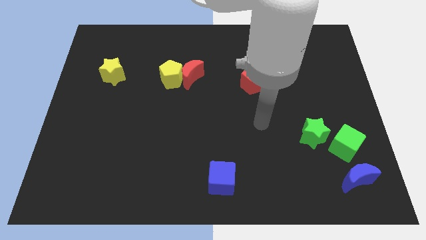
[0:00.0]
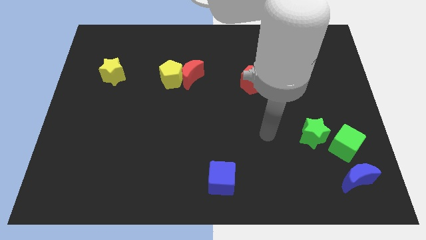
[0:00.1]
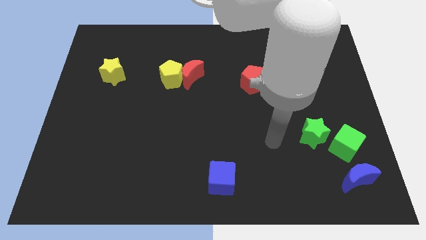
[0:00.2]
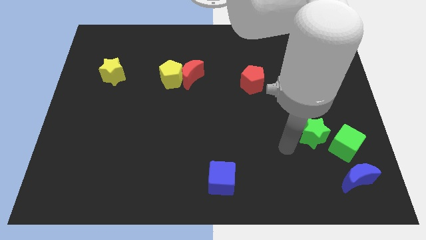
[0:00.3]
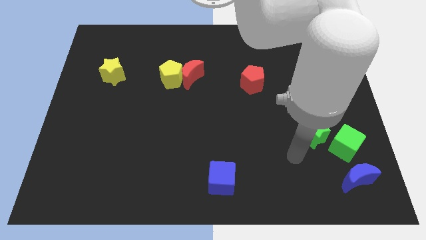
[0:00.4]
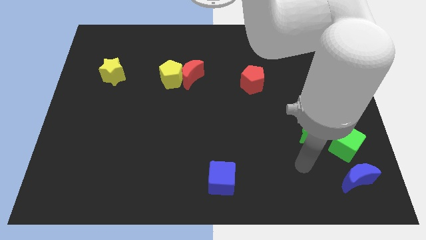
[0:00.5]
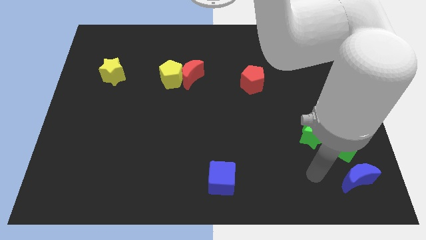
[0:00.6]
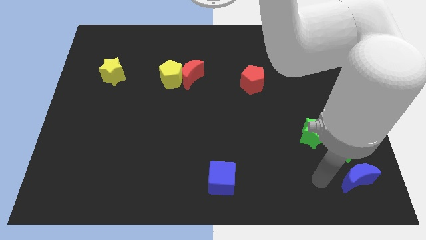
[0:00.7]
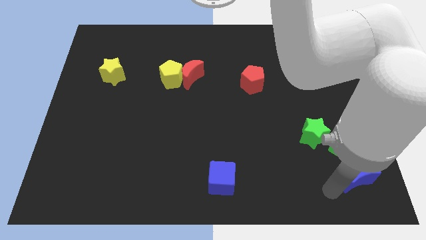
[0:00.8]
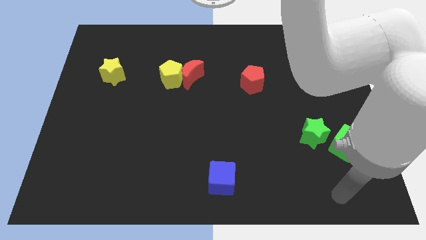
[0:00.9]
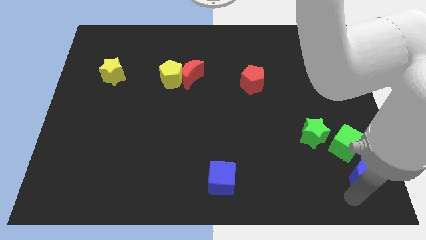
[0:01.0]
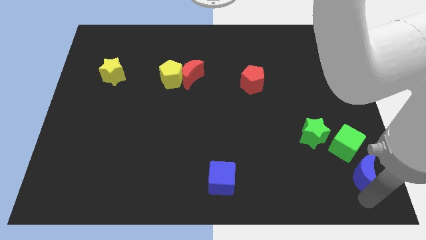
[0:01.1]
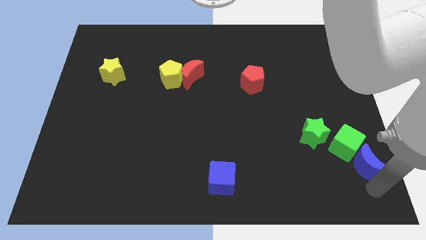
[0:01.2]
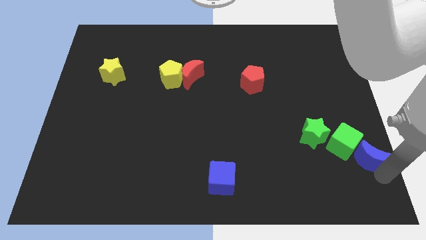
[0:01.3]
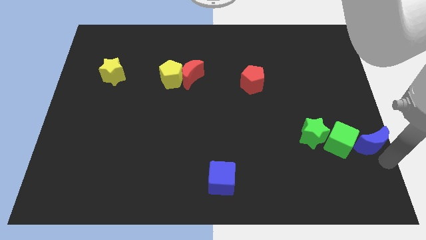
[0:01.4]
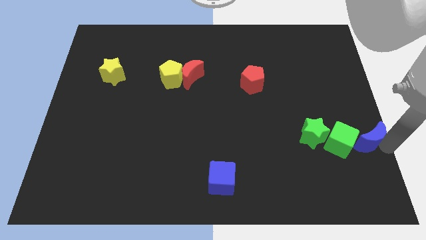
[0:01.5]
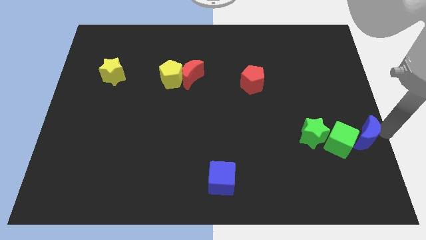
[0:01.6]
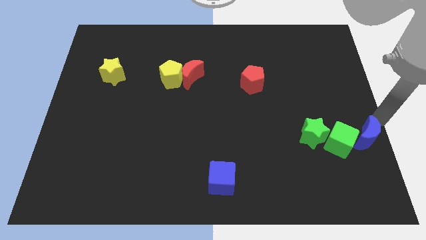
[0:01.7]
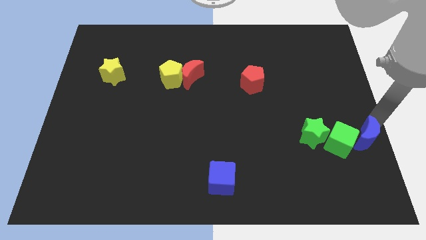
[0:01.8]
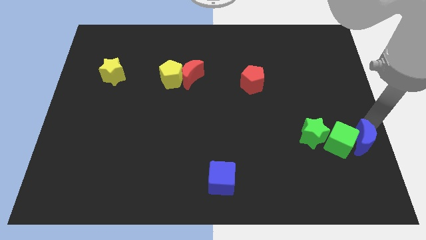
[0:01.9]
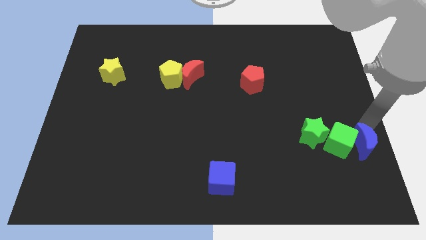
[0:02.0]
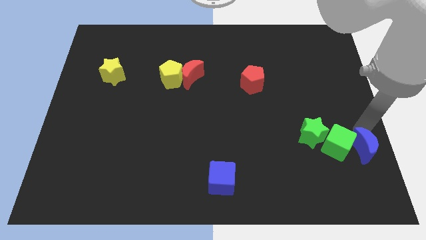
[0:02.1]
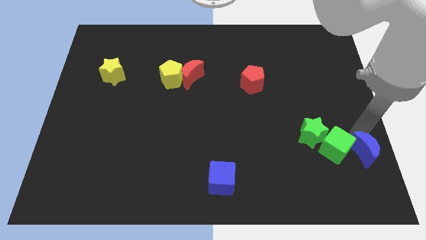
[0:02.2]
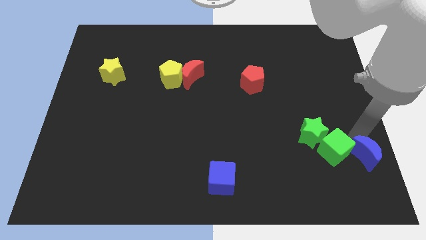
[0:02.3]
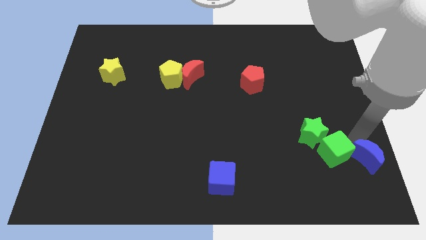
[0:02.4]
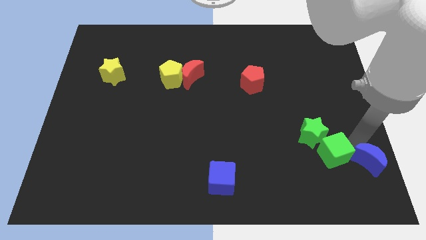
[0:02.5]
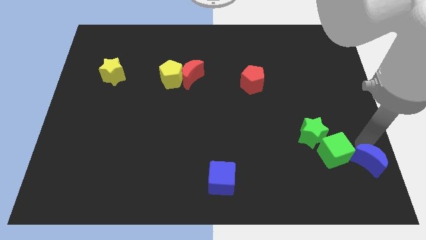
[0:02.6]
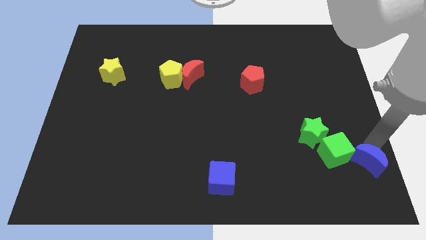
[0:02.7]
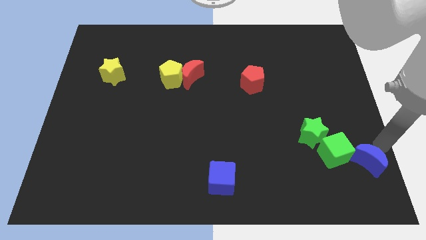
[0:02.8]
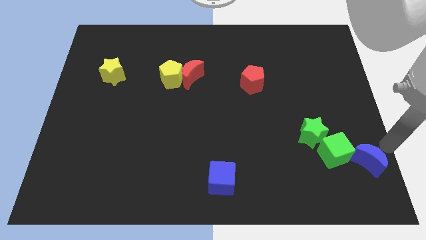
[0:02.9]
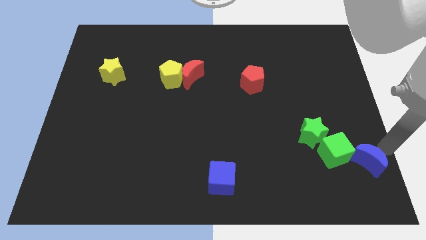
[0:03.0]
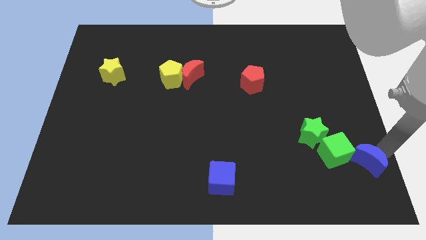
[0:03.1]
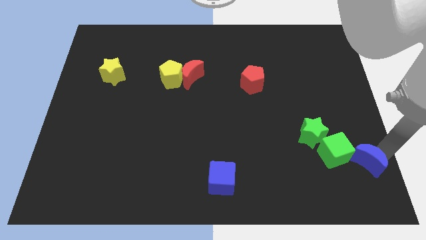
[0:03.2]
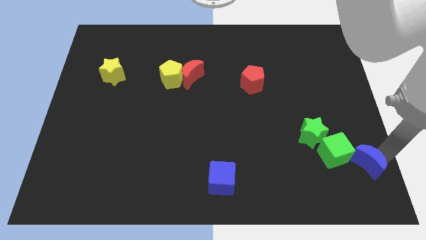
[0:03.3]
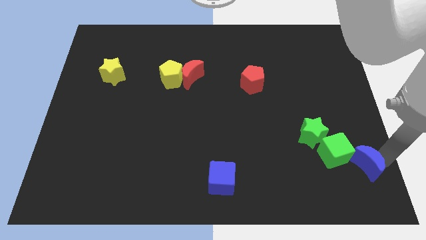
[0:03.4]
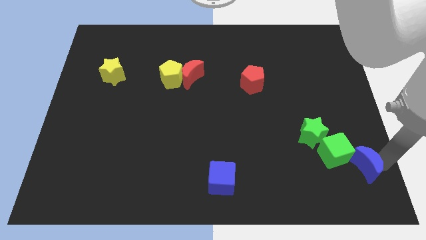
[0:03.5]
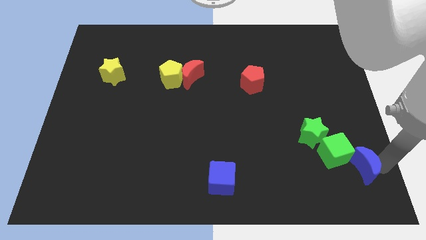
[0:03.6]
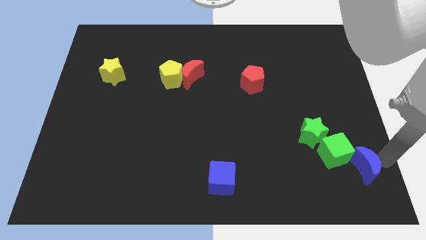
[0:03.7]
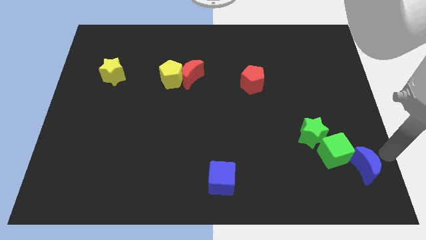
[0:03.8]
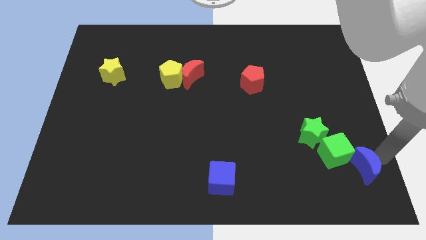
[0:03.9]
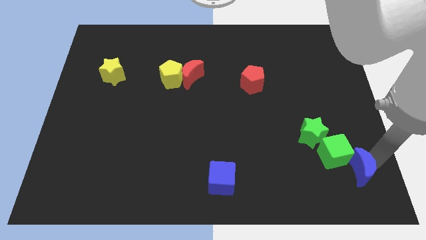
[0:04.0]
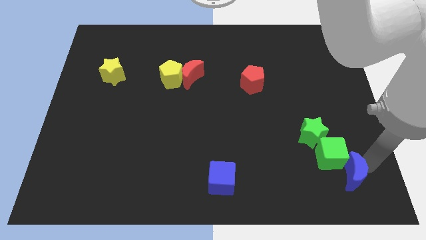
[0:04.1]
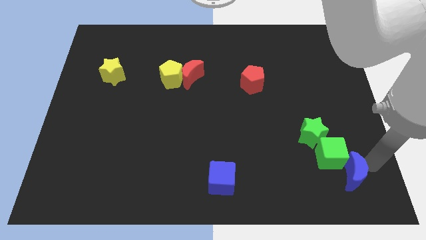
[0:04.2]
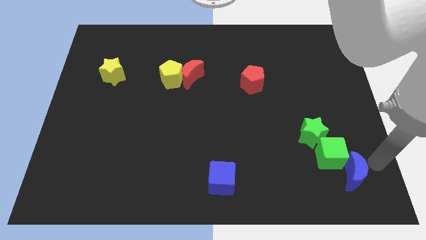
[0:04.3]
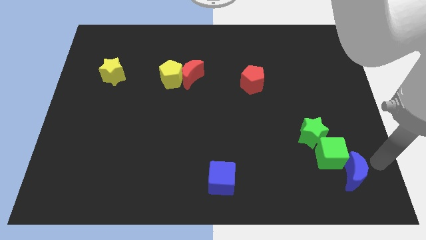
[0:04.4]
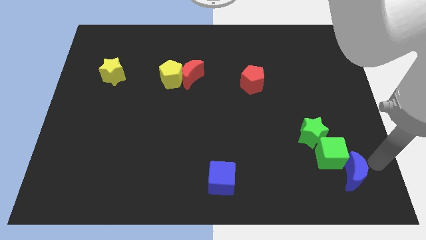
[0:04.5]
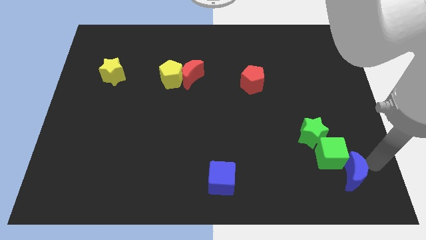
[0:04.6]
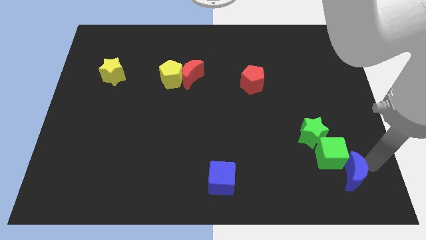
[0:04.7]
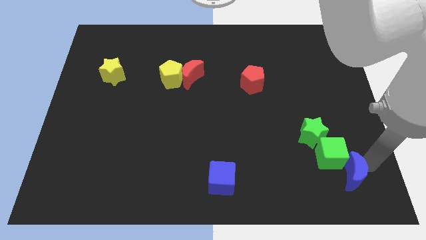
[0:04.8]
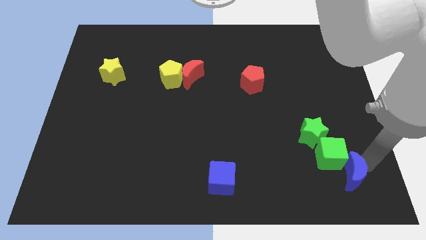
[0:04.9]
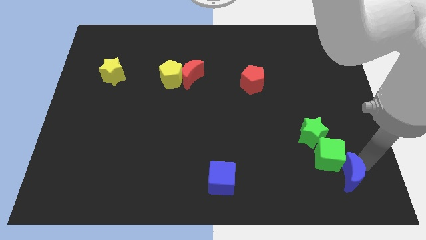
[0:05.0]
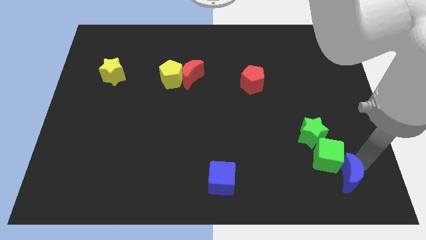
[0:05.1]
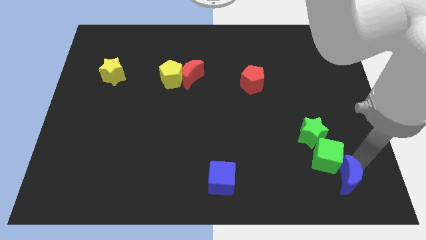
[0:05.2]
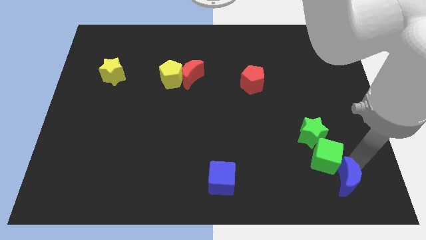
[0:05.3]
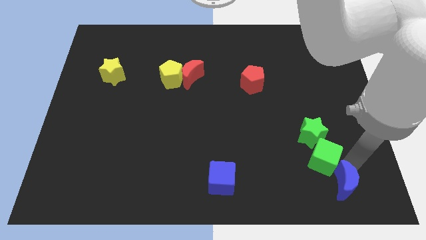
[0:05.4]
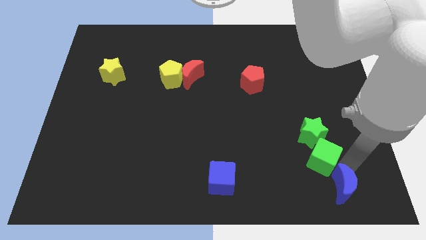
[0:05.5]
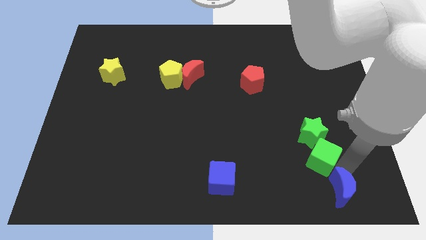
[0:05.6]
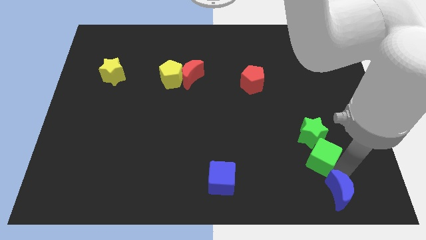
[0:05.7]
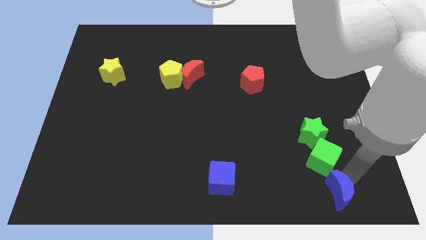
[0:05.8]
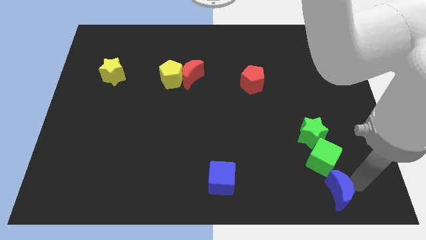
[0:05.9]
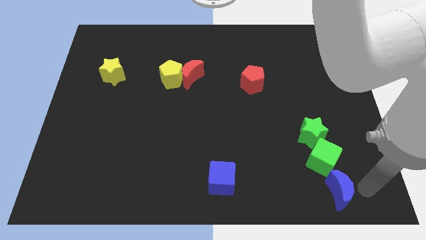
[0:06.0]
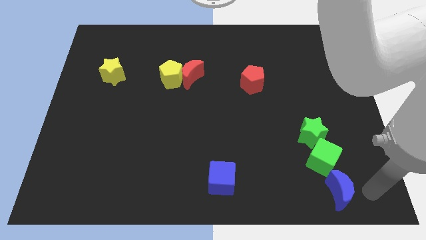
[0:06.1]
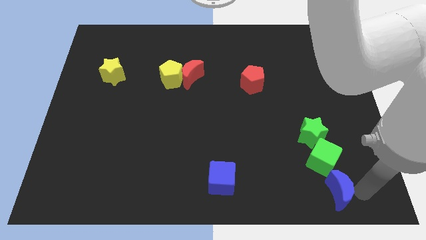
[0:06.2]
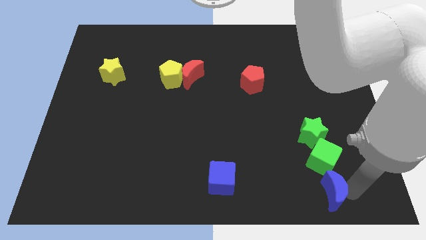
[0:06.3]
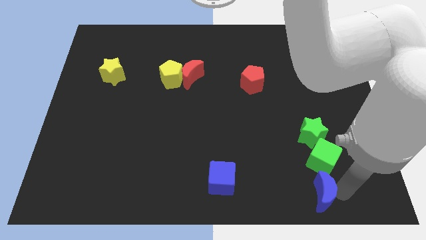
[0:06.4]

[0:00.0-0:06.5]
slide the blue moon a little left

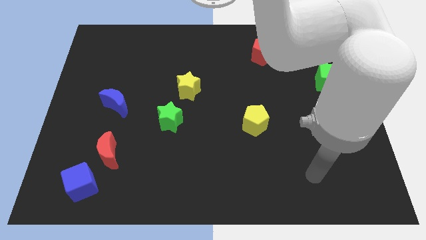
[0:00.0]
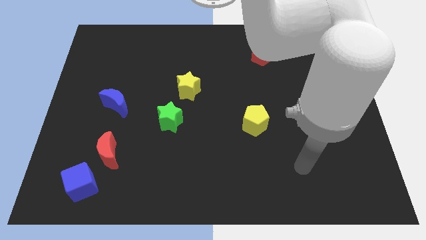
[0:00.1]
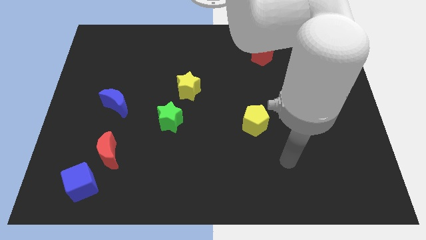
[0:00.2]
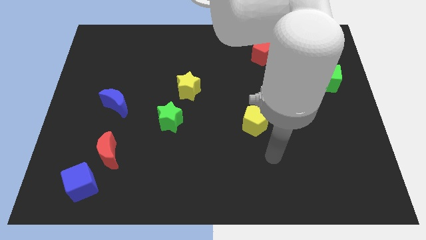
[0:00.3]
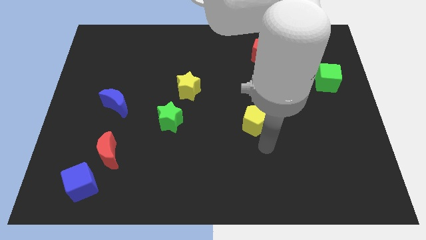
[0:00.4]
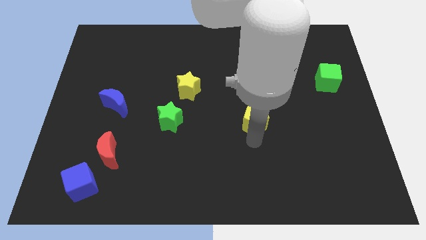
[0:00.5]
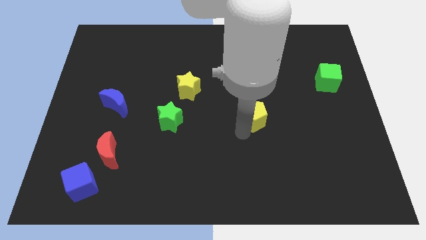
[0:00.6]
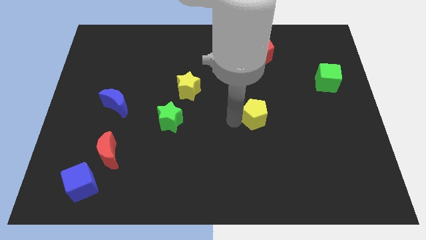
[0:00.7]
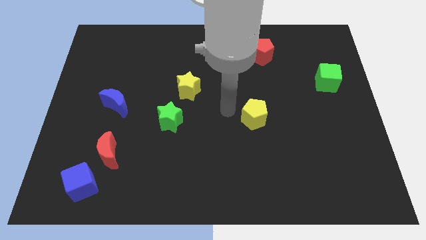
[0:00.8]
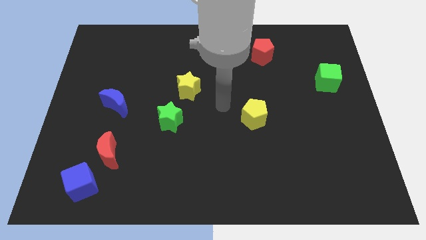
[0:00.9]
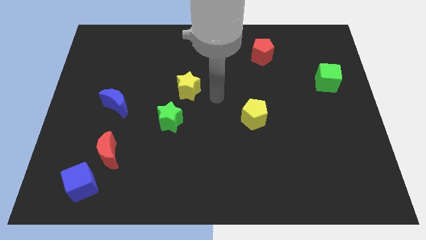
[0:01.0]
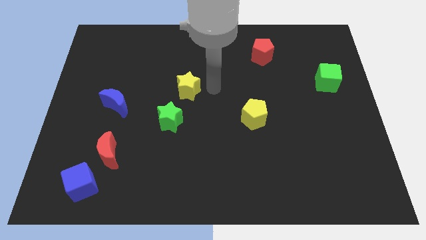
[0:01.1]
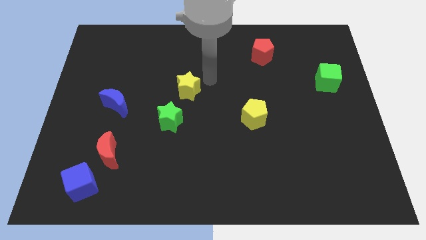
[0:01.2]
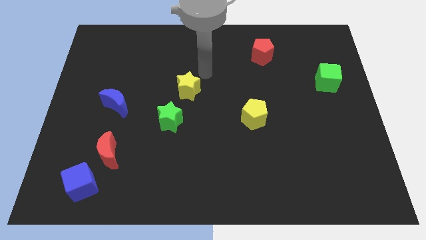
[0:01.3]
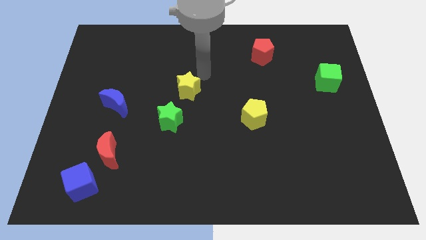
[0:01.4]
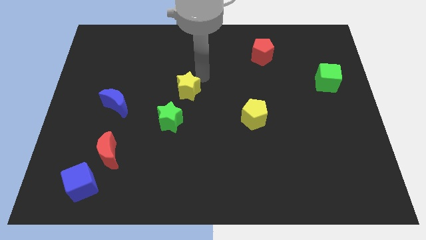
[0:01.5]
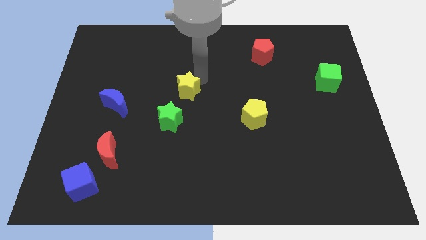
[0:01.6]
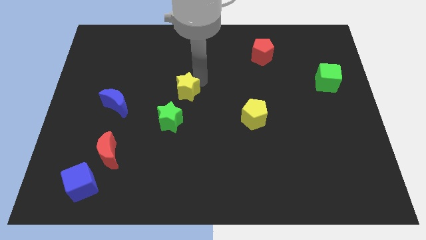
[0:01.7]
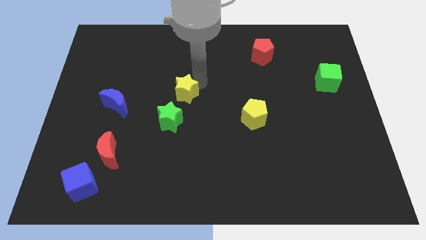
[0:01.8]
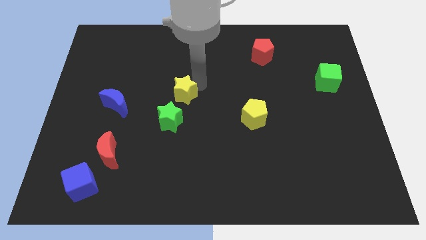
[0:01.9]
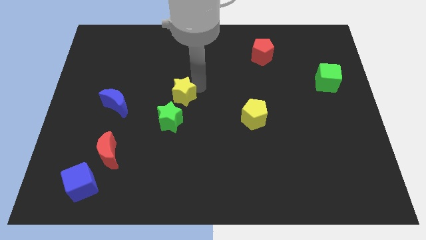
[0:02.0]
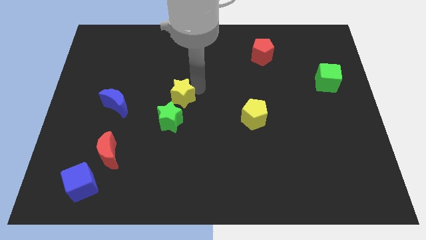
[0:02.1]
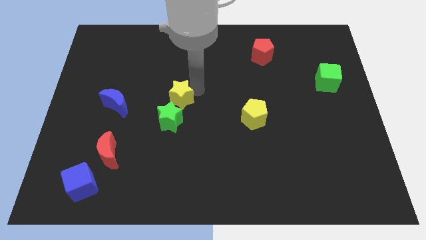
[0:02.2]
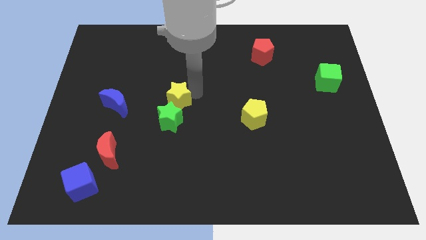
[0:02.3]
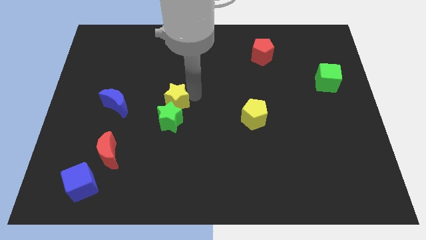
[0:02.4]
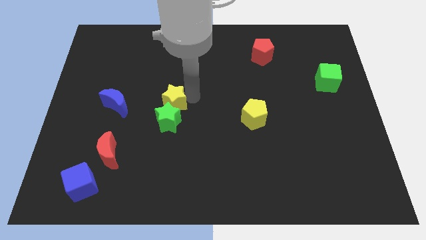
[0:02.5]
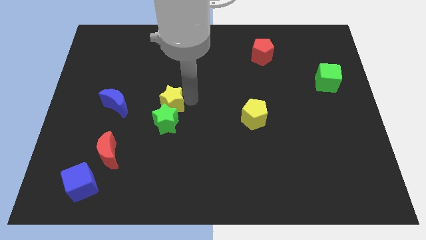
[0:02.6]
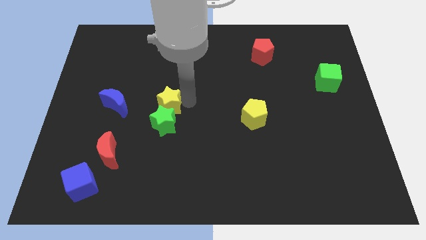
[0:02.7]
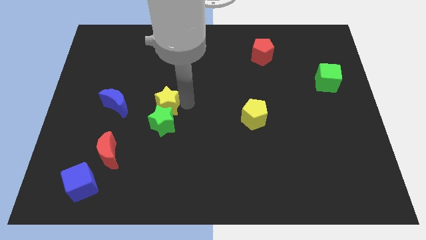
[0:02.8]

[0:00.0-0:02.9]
move the yellow star a bit diagonally down and to the left
